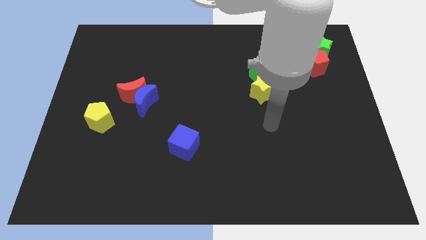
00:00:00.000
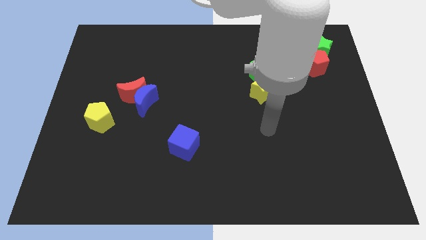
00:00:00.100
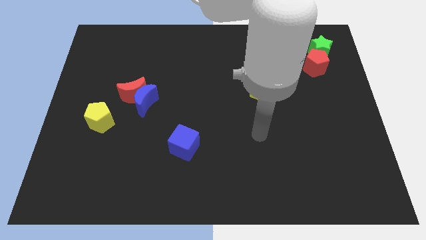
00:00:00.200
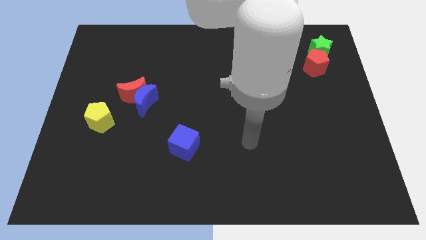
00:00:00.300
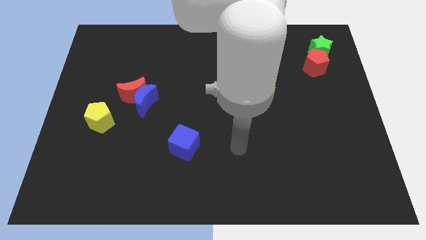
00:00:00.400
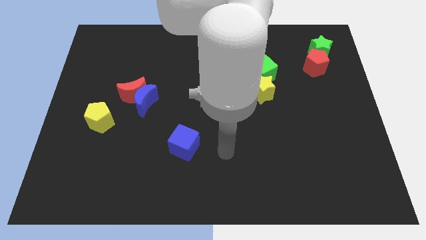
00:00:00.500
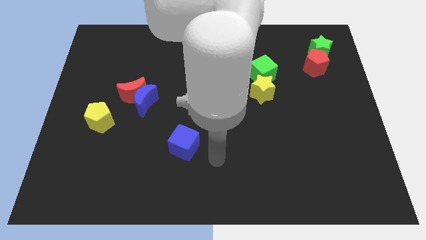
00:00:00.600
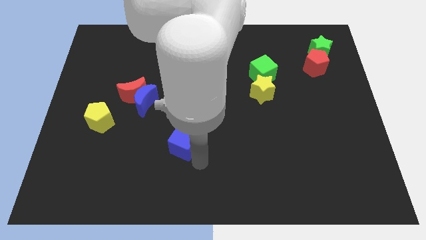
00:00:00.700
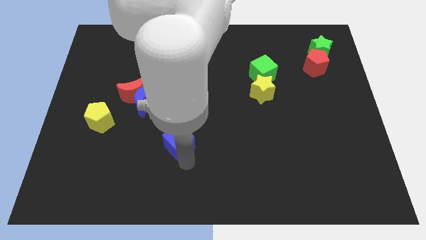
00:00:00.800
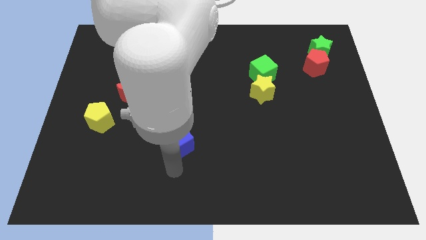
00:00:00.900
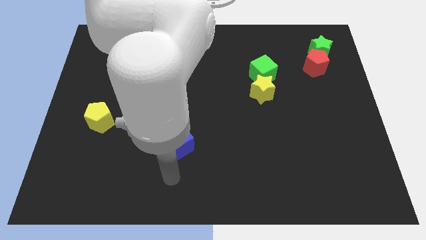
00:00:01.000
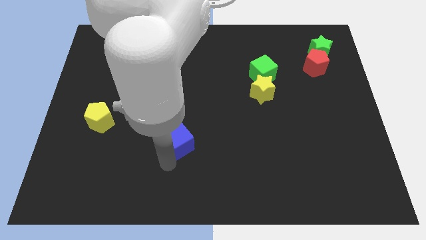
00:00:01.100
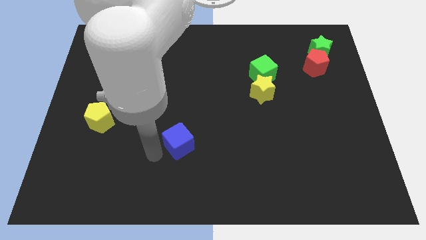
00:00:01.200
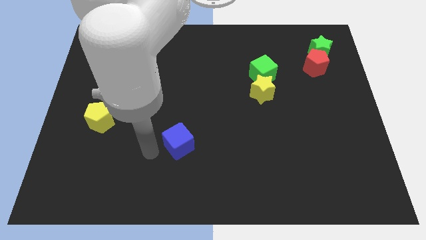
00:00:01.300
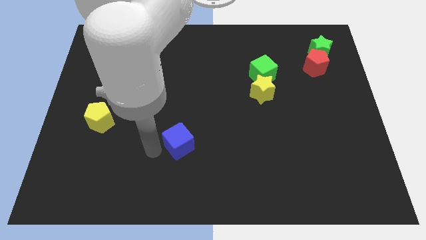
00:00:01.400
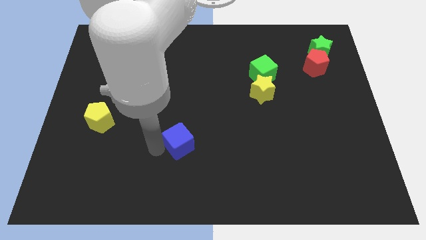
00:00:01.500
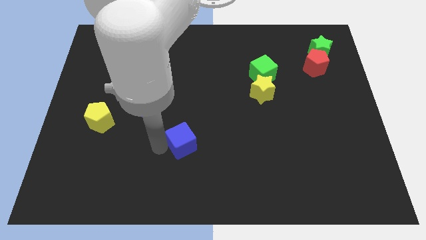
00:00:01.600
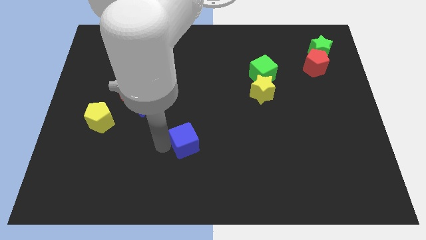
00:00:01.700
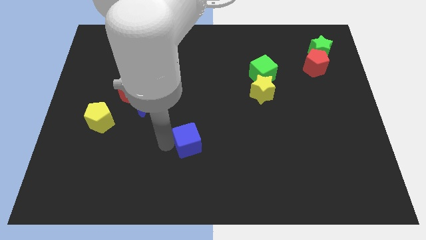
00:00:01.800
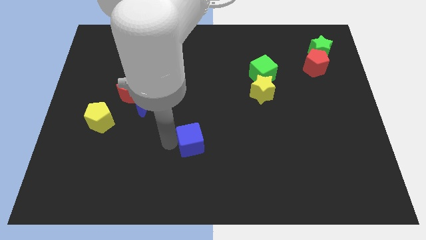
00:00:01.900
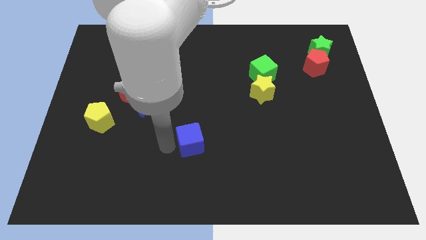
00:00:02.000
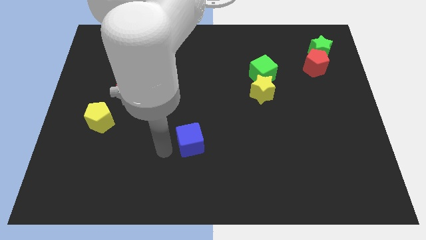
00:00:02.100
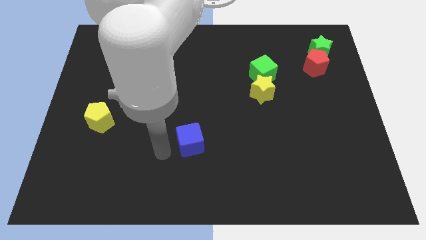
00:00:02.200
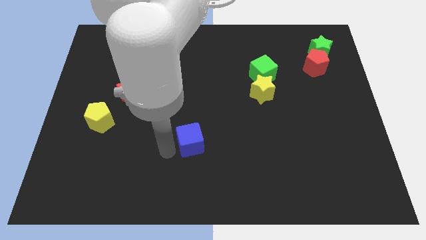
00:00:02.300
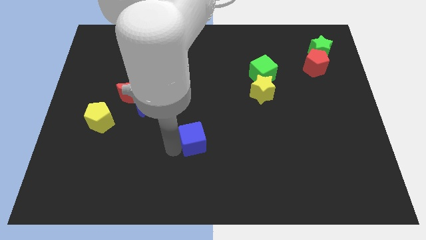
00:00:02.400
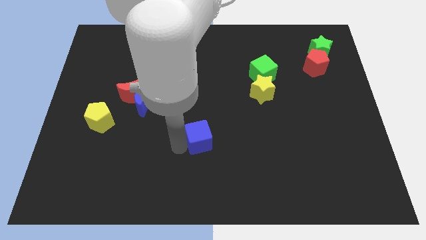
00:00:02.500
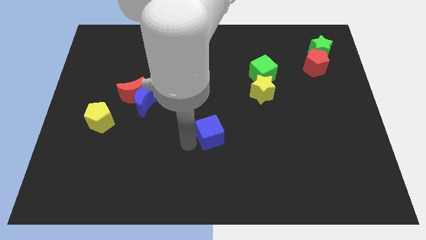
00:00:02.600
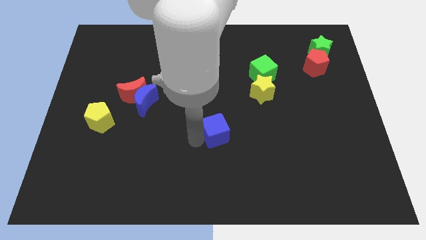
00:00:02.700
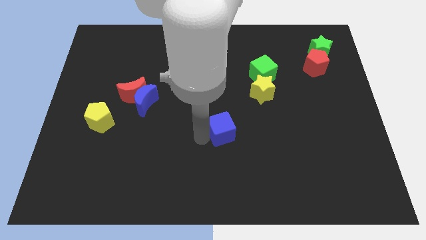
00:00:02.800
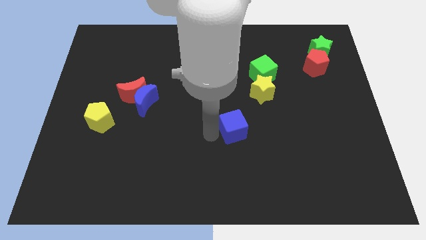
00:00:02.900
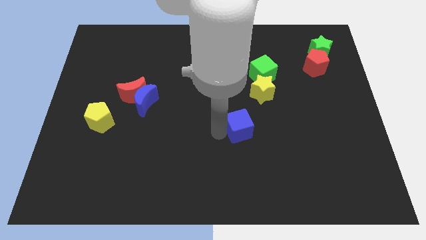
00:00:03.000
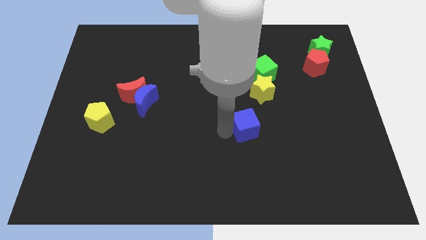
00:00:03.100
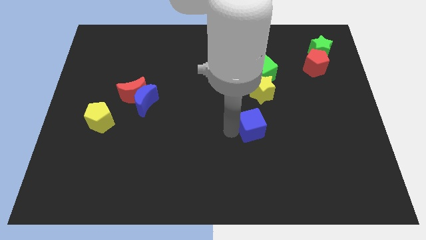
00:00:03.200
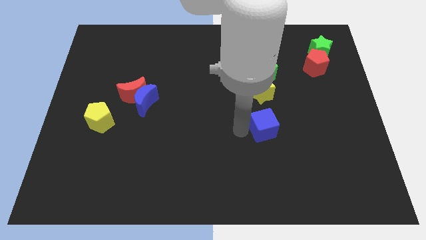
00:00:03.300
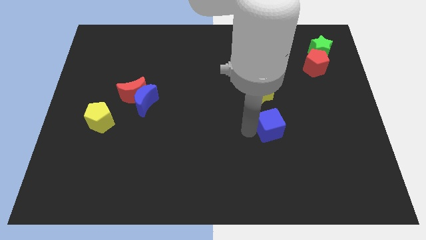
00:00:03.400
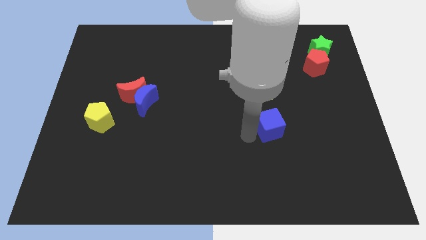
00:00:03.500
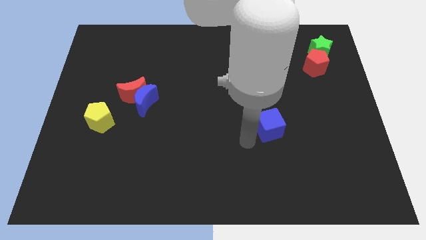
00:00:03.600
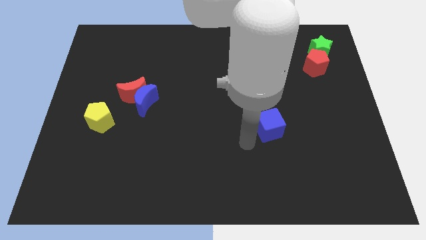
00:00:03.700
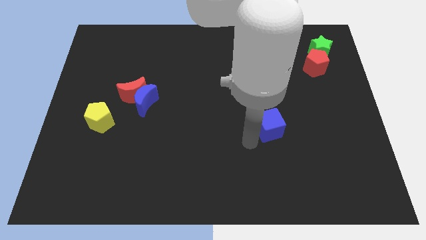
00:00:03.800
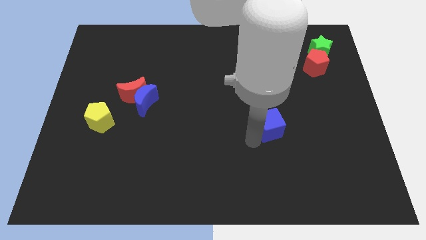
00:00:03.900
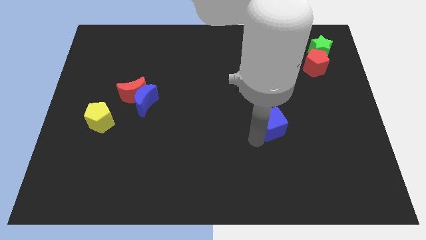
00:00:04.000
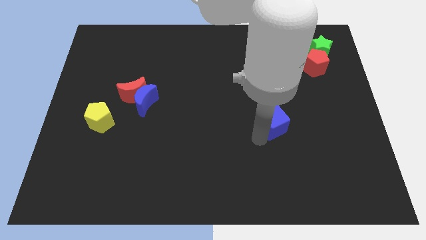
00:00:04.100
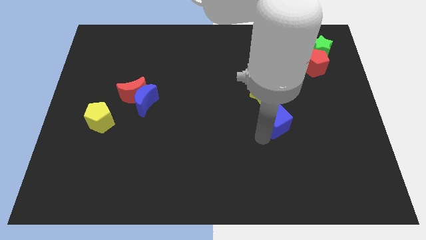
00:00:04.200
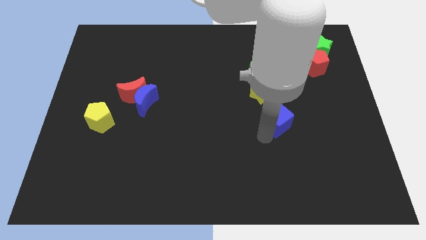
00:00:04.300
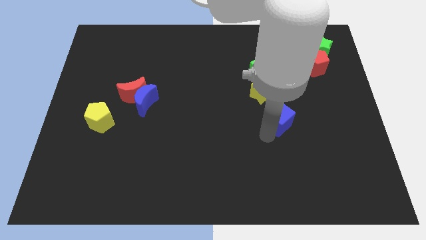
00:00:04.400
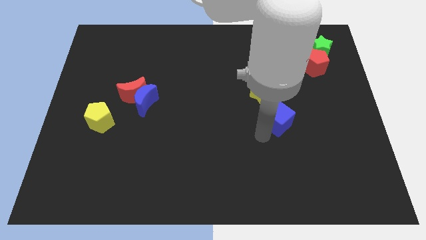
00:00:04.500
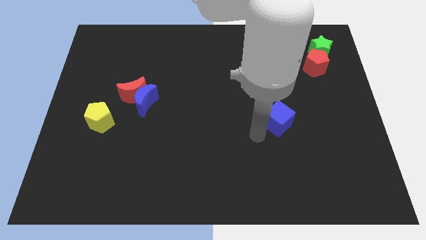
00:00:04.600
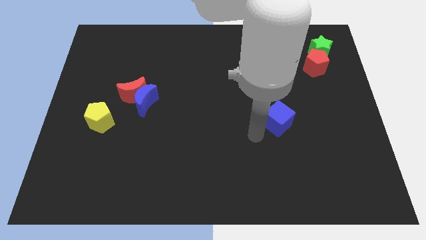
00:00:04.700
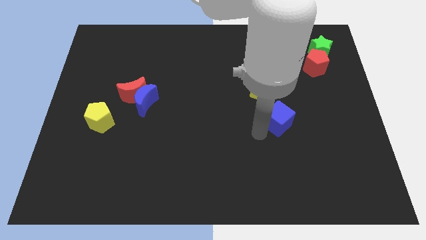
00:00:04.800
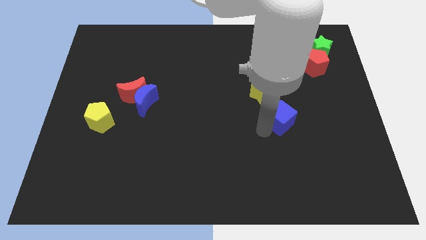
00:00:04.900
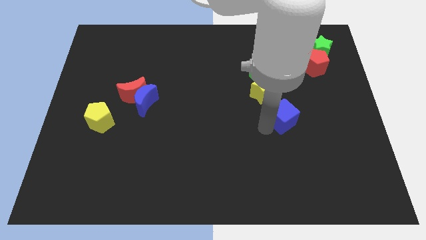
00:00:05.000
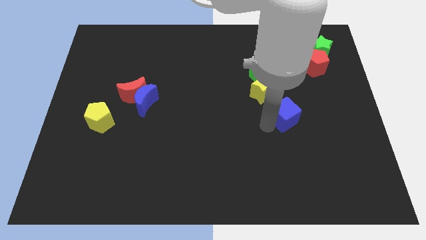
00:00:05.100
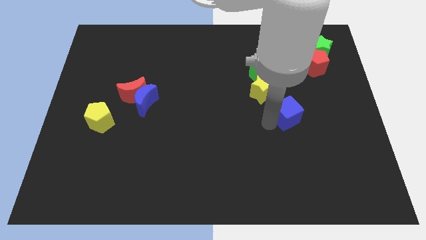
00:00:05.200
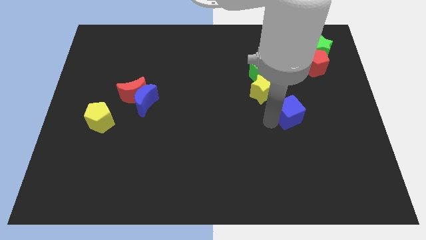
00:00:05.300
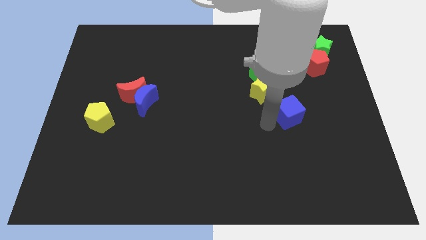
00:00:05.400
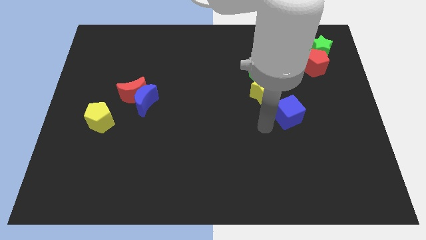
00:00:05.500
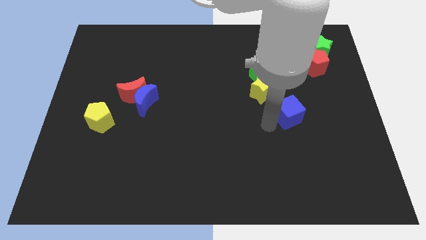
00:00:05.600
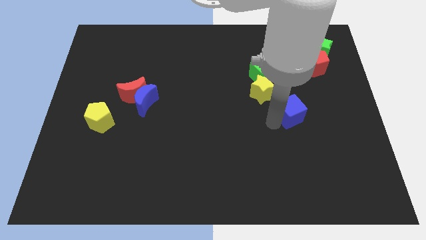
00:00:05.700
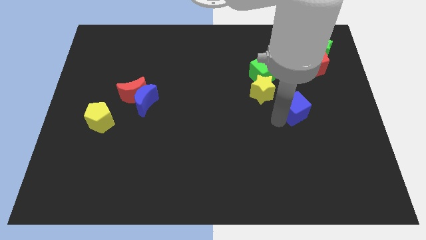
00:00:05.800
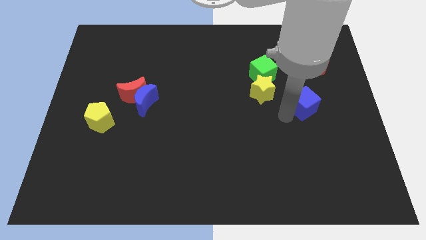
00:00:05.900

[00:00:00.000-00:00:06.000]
slide the blue cube to the bottom of the red pentagon

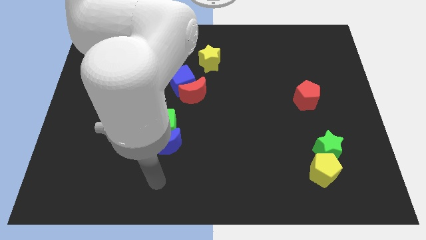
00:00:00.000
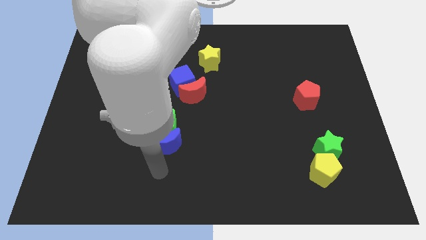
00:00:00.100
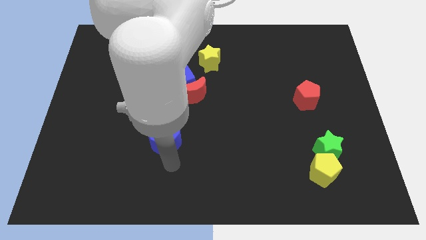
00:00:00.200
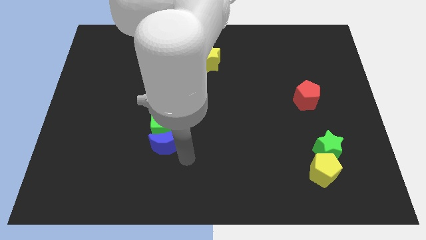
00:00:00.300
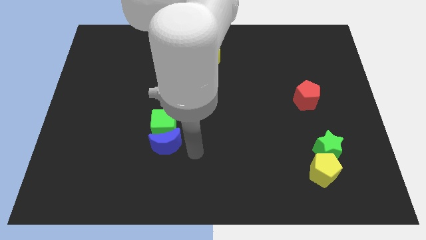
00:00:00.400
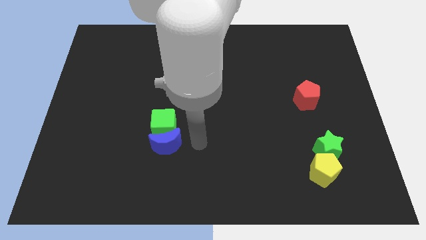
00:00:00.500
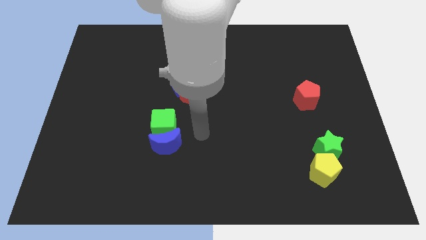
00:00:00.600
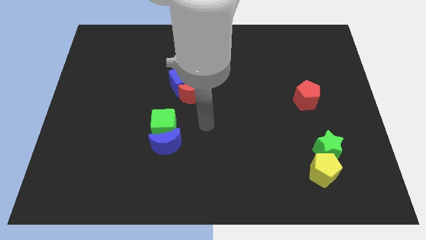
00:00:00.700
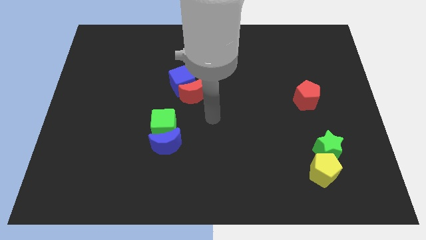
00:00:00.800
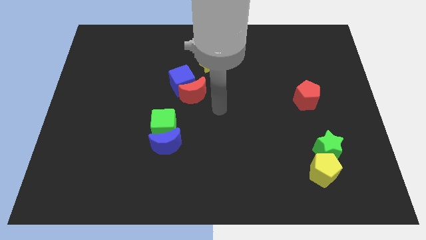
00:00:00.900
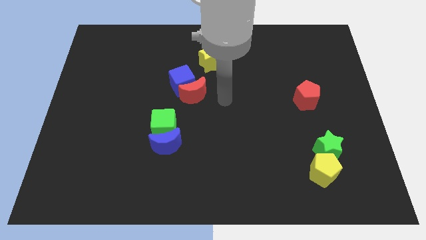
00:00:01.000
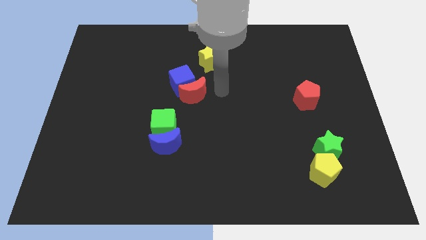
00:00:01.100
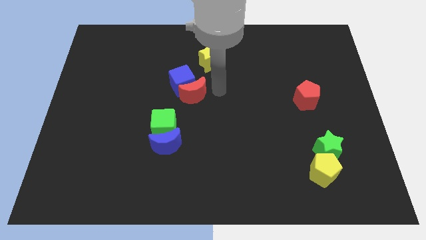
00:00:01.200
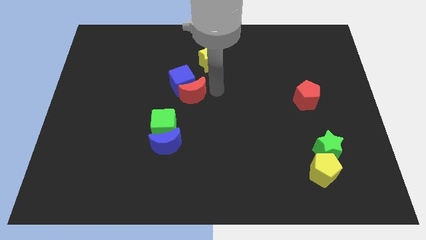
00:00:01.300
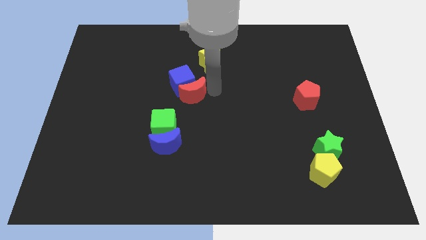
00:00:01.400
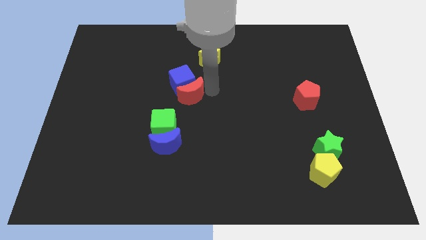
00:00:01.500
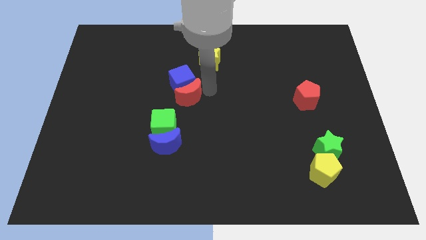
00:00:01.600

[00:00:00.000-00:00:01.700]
slide the red moon to the bottom left of the blue cube
